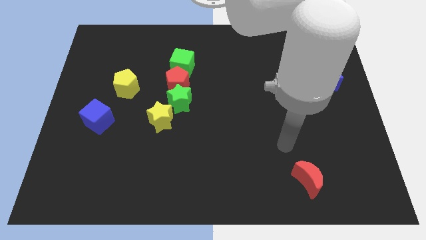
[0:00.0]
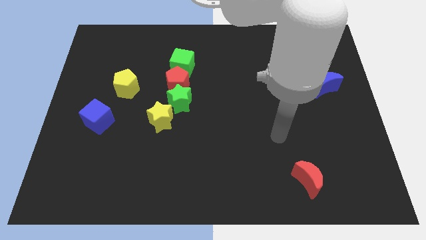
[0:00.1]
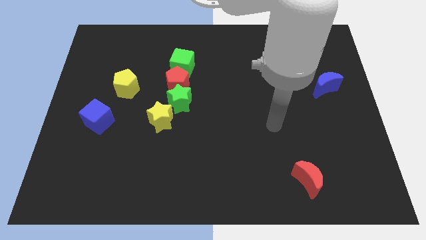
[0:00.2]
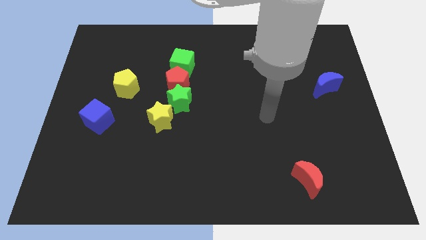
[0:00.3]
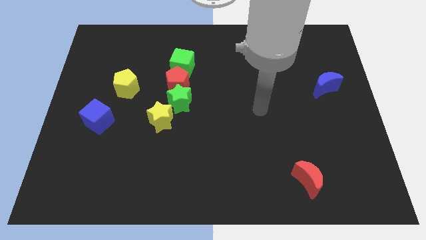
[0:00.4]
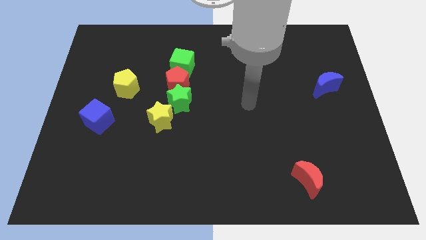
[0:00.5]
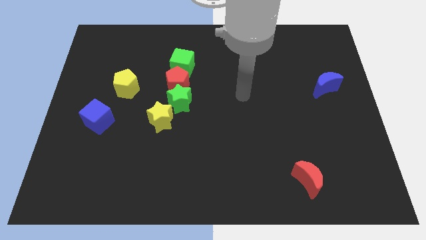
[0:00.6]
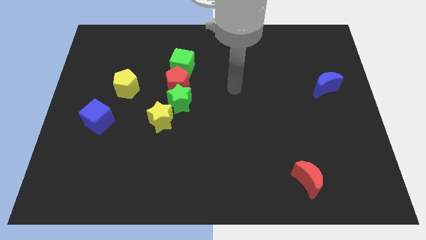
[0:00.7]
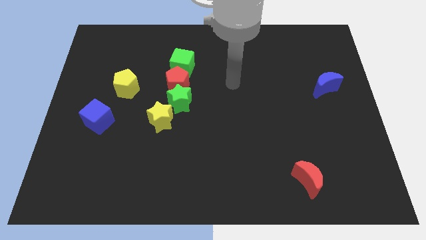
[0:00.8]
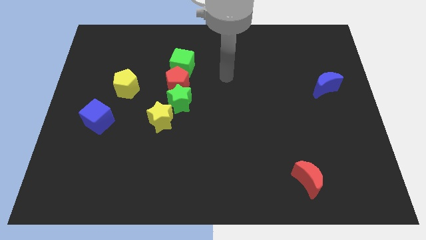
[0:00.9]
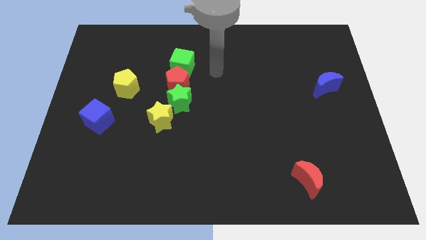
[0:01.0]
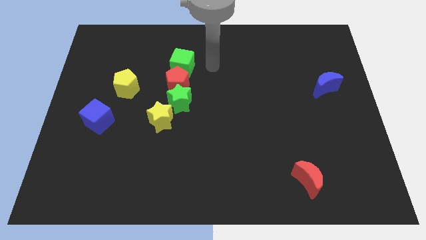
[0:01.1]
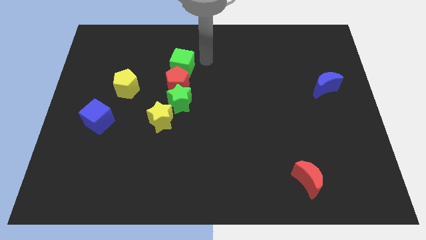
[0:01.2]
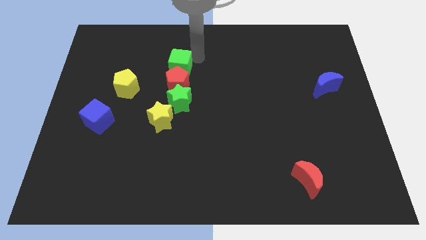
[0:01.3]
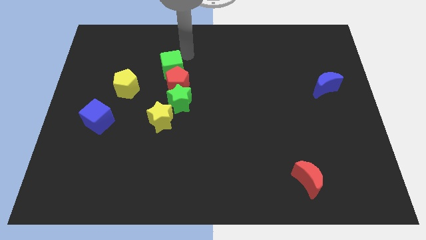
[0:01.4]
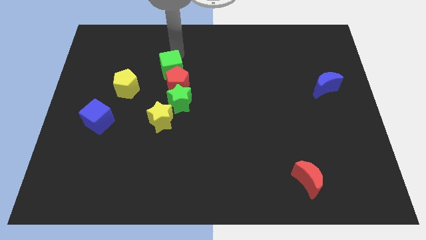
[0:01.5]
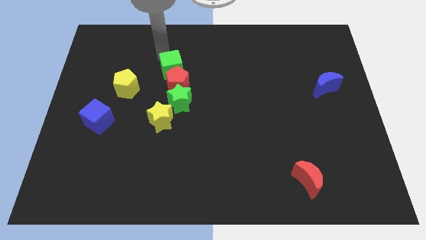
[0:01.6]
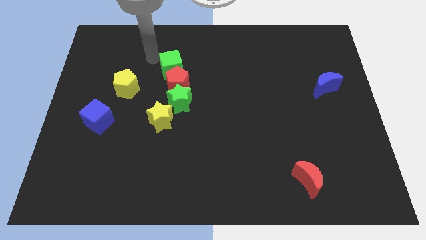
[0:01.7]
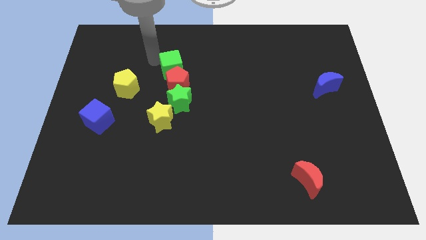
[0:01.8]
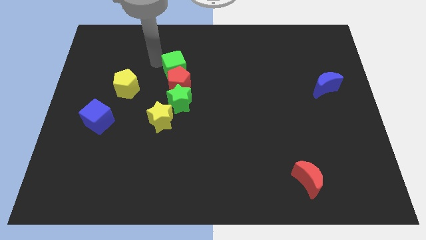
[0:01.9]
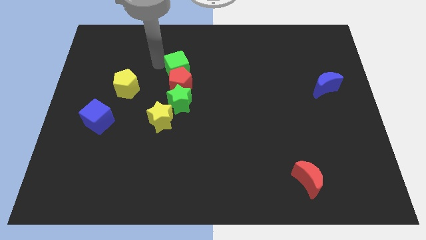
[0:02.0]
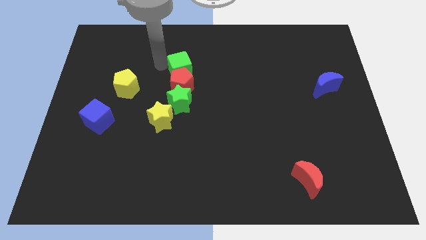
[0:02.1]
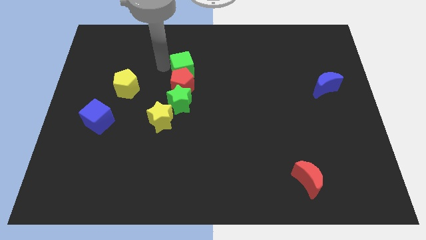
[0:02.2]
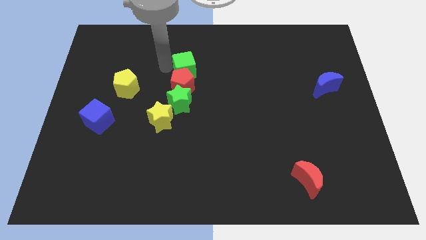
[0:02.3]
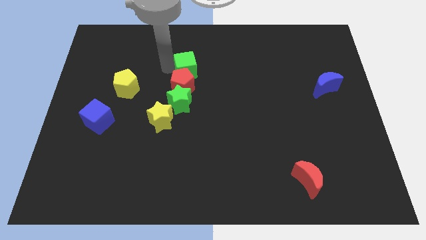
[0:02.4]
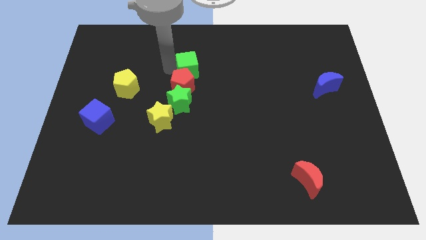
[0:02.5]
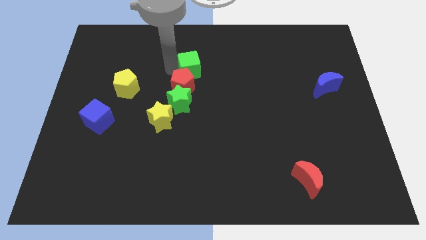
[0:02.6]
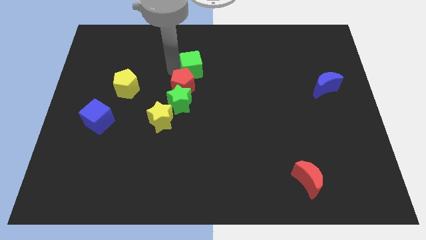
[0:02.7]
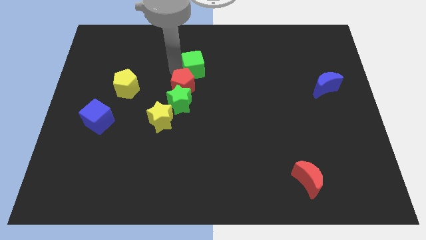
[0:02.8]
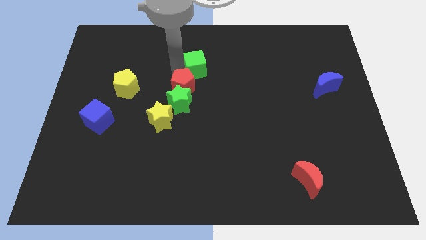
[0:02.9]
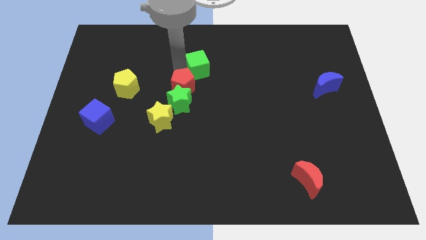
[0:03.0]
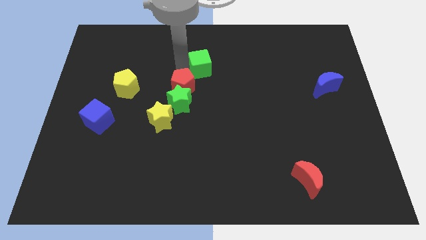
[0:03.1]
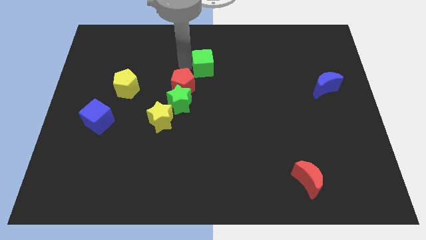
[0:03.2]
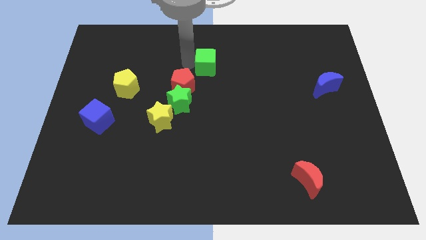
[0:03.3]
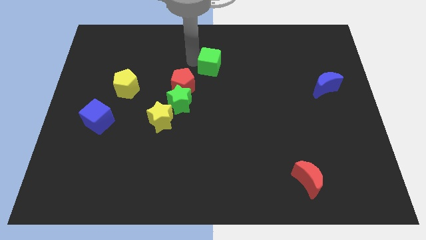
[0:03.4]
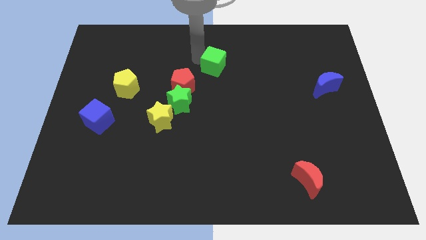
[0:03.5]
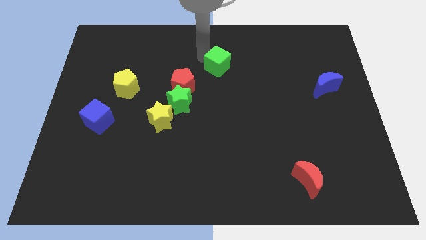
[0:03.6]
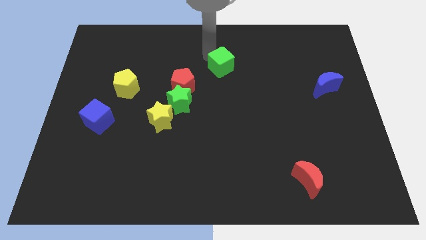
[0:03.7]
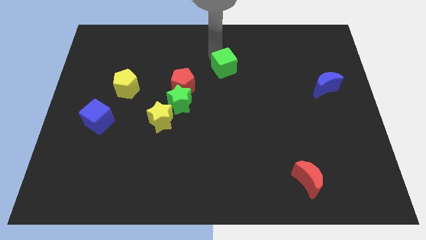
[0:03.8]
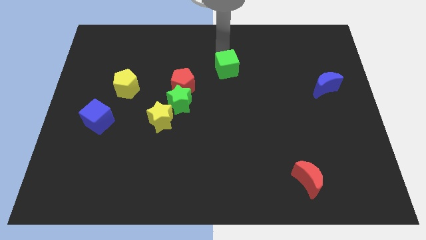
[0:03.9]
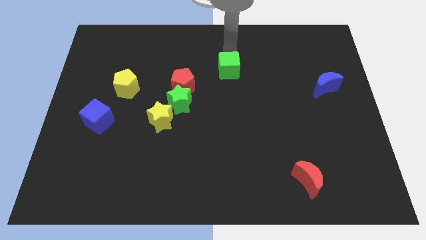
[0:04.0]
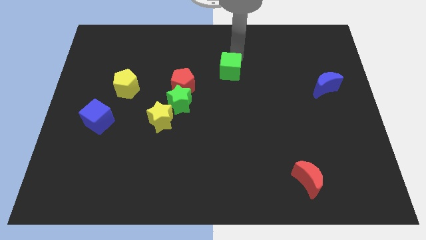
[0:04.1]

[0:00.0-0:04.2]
slide the green cube somewhat downwards and to the right

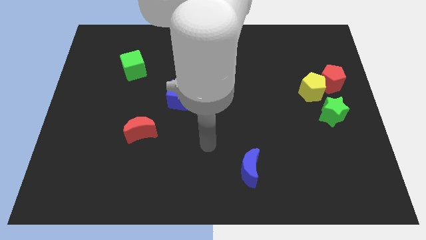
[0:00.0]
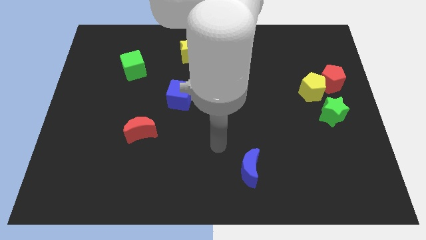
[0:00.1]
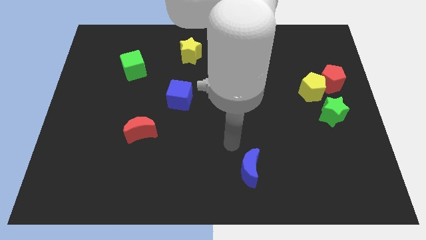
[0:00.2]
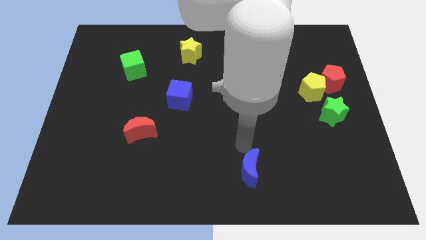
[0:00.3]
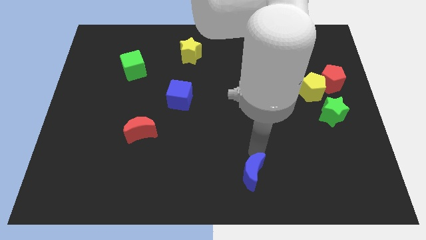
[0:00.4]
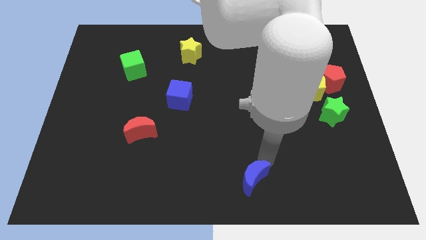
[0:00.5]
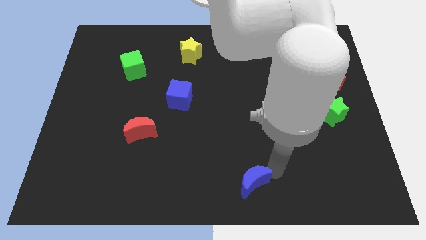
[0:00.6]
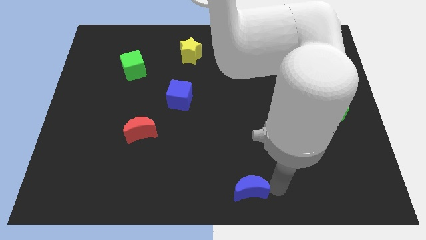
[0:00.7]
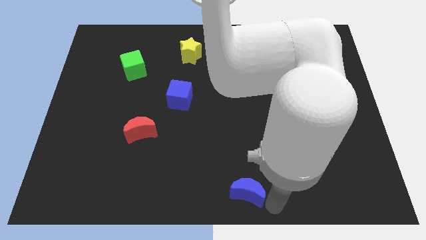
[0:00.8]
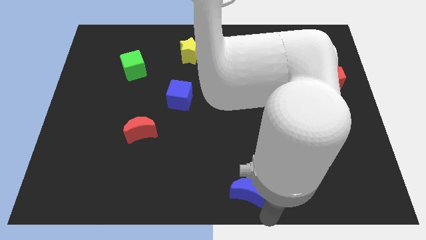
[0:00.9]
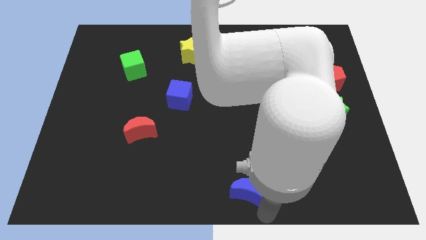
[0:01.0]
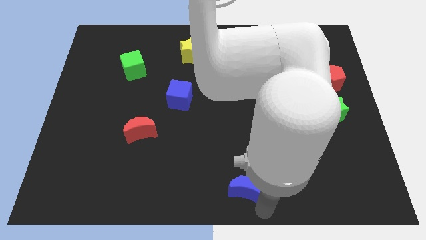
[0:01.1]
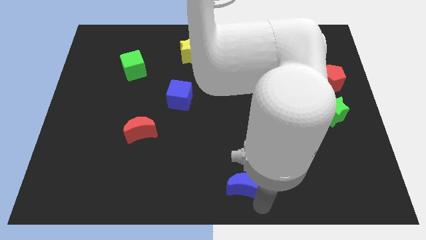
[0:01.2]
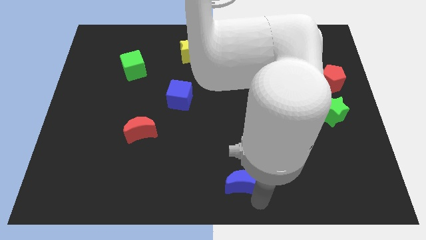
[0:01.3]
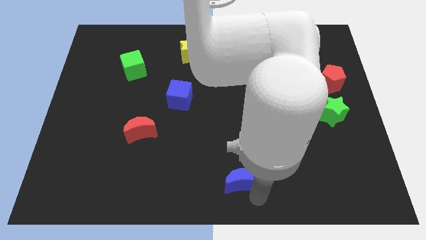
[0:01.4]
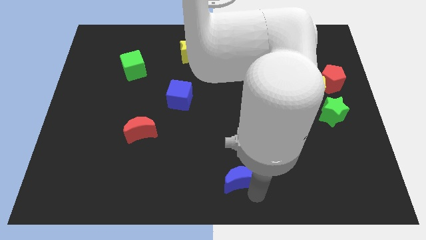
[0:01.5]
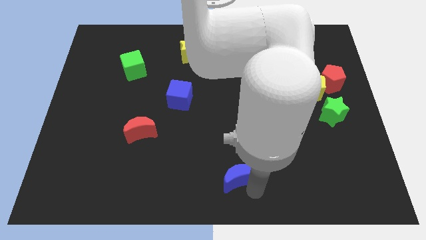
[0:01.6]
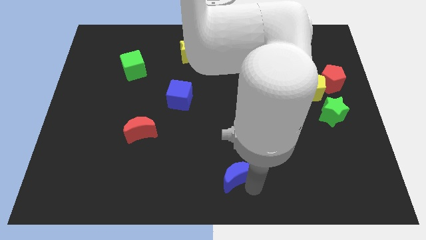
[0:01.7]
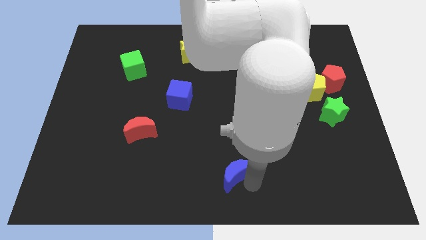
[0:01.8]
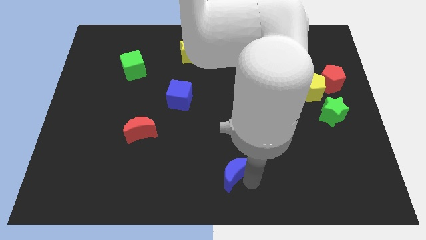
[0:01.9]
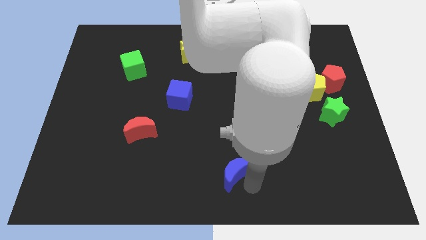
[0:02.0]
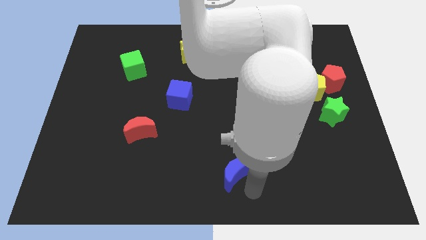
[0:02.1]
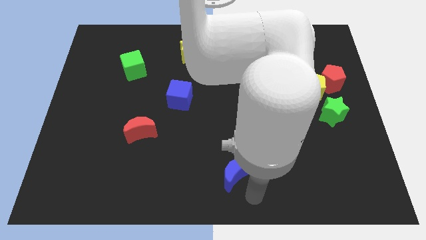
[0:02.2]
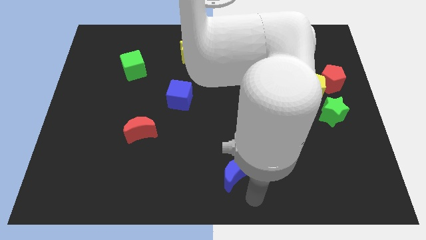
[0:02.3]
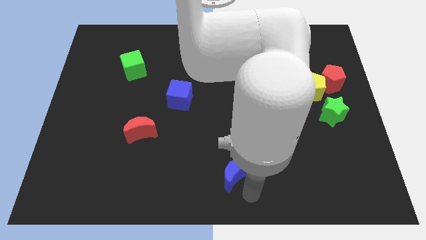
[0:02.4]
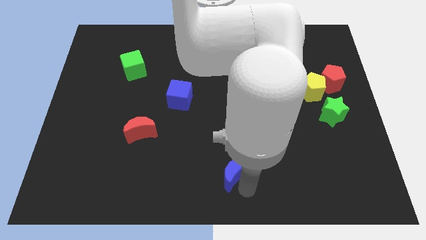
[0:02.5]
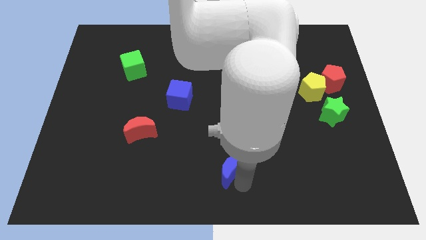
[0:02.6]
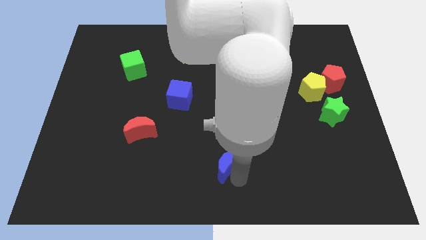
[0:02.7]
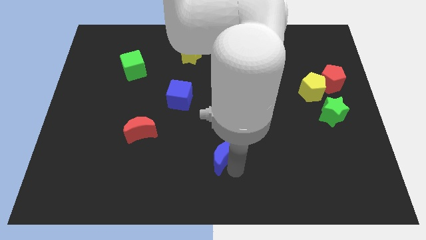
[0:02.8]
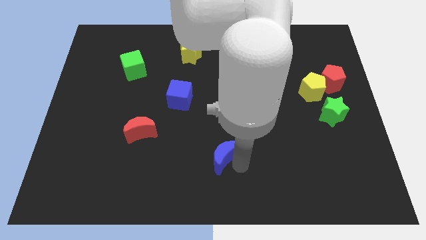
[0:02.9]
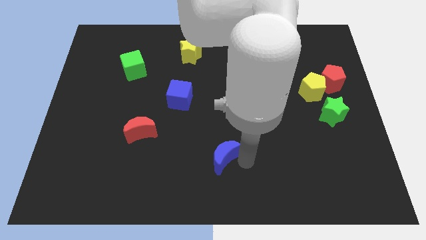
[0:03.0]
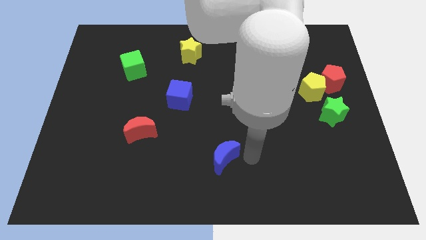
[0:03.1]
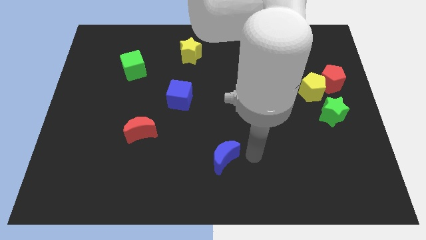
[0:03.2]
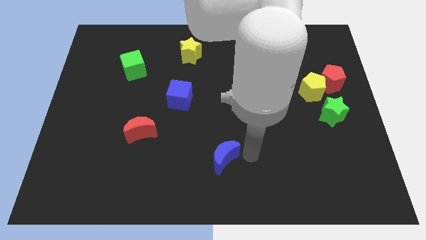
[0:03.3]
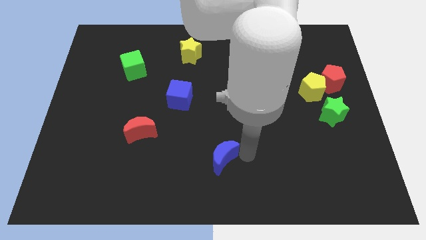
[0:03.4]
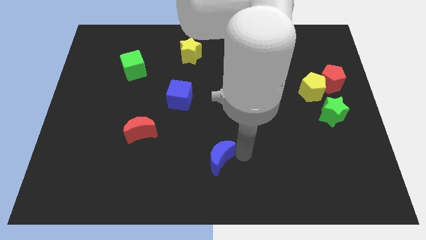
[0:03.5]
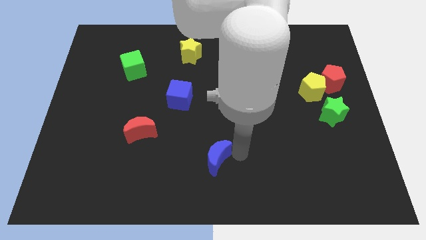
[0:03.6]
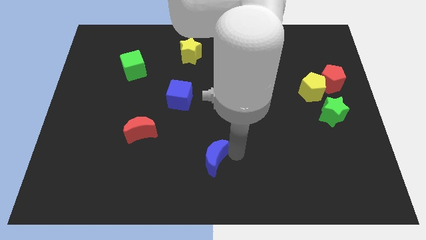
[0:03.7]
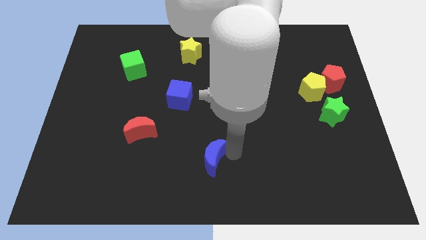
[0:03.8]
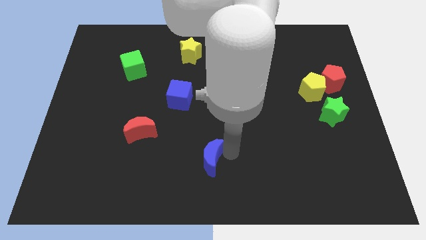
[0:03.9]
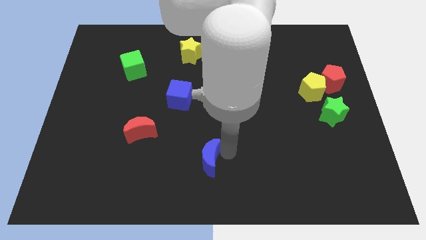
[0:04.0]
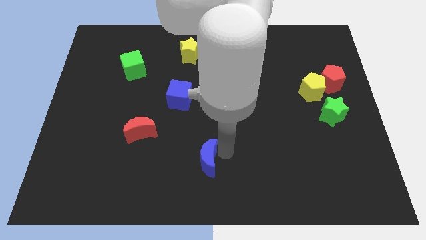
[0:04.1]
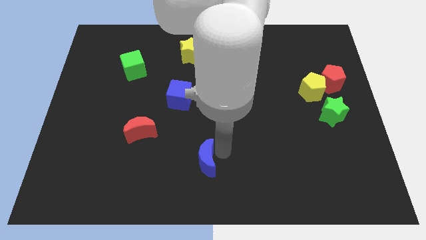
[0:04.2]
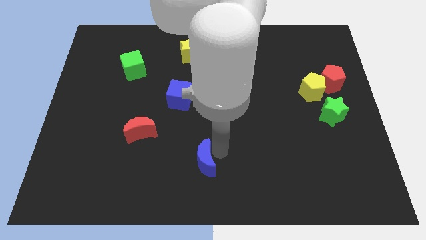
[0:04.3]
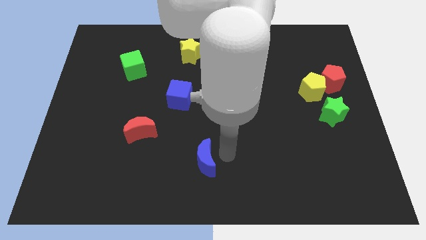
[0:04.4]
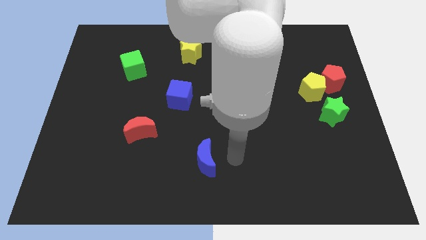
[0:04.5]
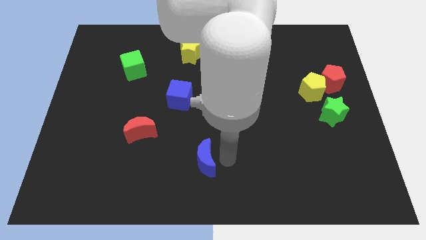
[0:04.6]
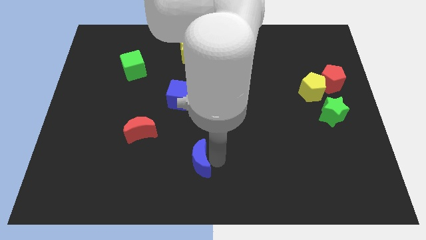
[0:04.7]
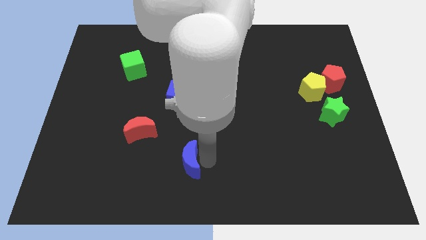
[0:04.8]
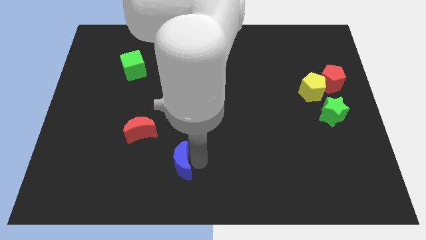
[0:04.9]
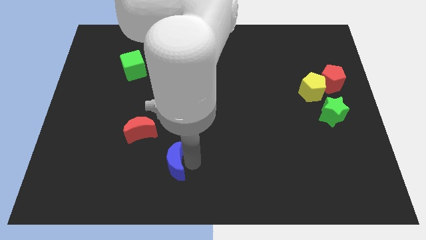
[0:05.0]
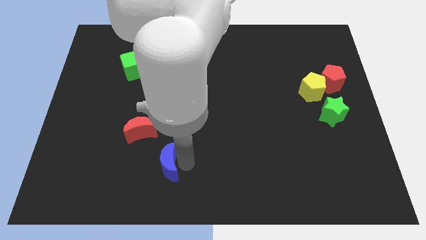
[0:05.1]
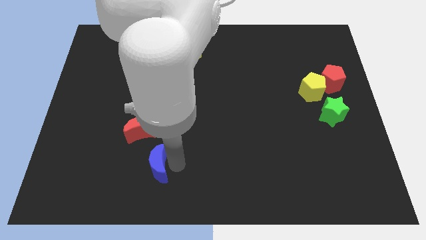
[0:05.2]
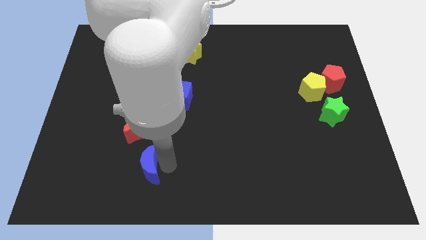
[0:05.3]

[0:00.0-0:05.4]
move the blue moon to the left
